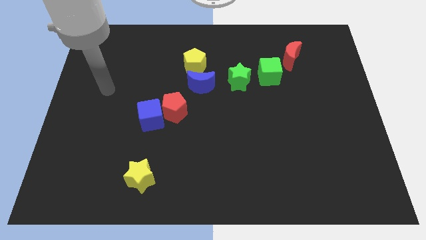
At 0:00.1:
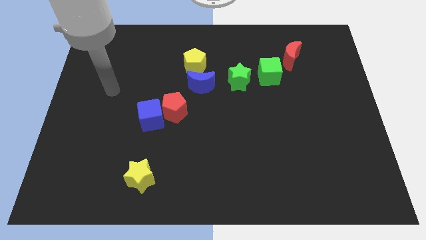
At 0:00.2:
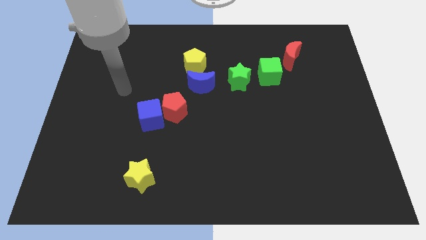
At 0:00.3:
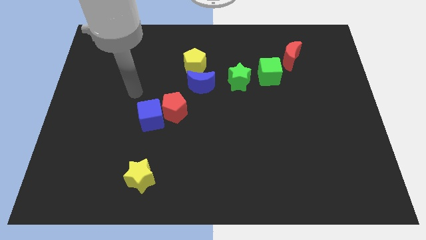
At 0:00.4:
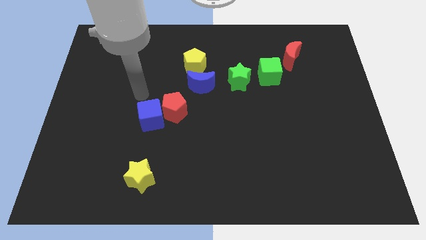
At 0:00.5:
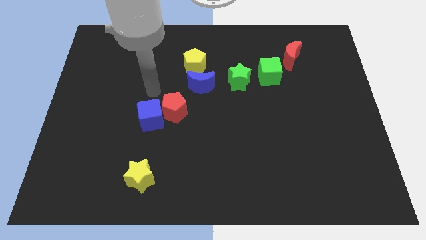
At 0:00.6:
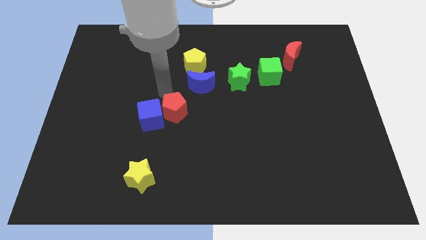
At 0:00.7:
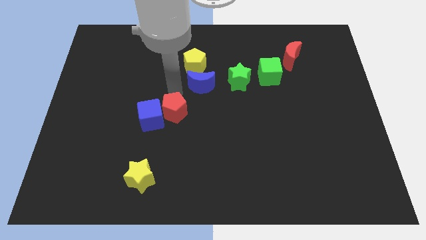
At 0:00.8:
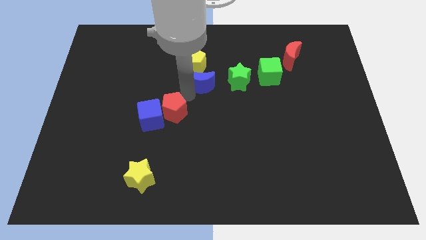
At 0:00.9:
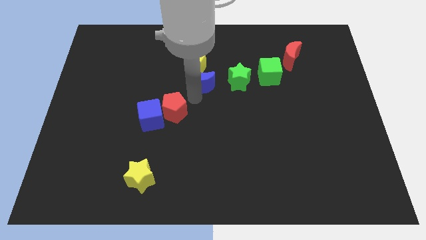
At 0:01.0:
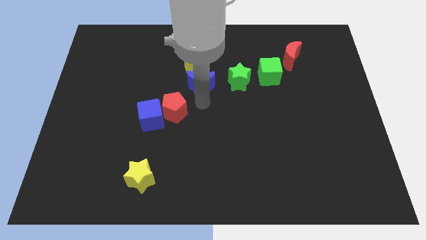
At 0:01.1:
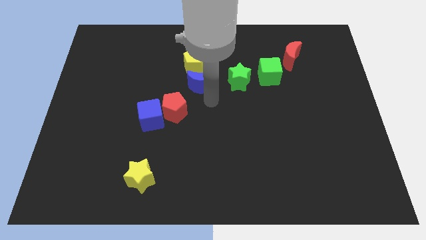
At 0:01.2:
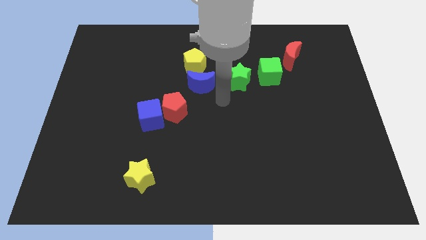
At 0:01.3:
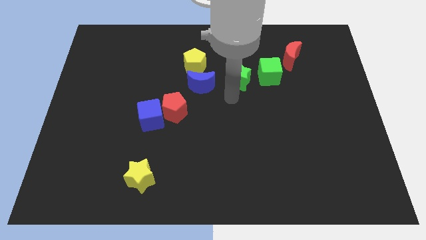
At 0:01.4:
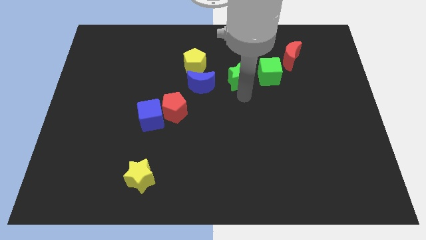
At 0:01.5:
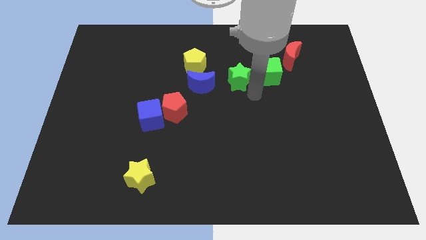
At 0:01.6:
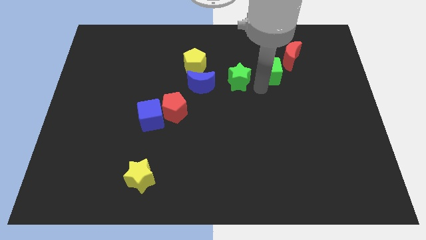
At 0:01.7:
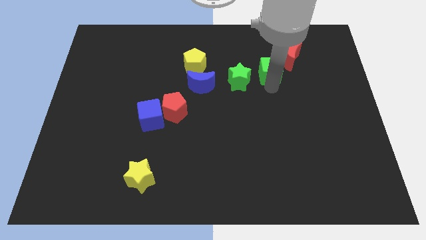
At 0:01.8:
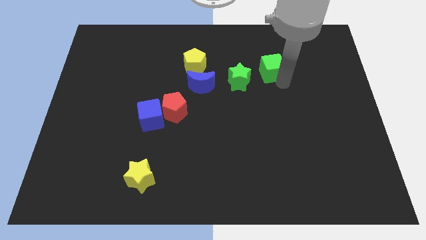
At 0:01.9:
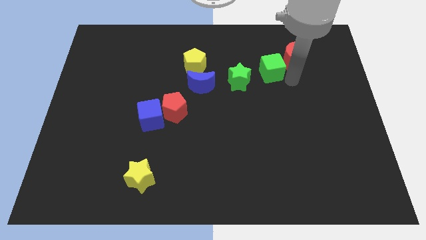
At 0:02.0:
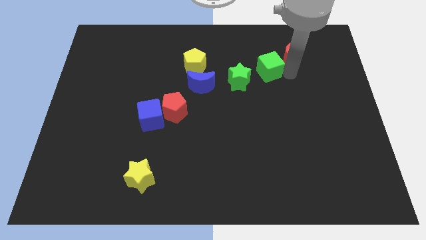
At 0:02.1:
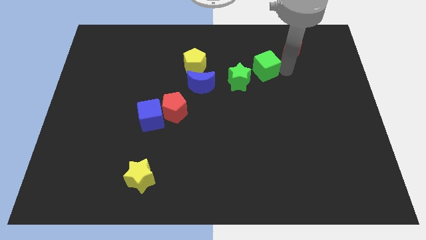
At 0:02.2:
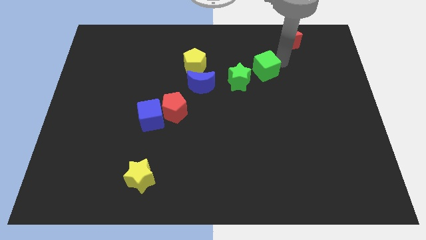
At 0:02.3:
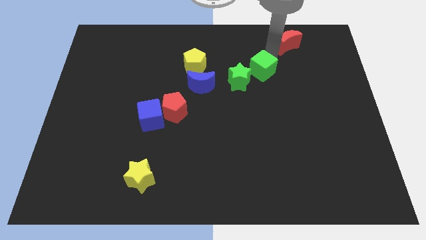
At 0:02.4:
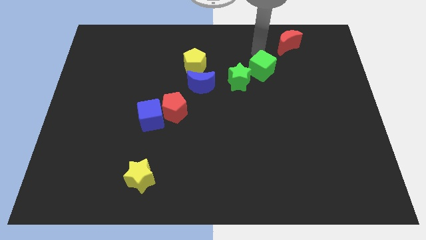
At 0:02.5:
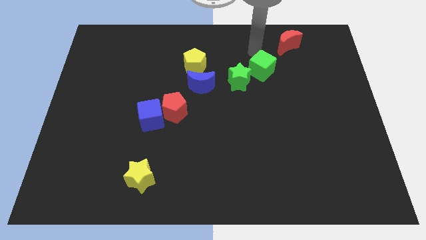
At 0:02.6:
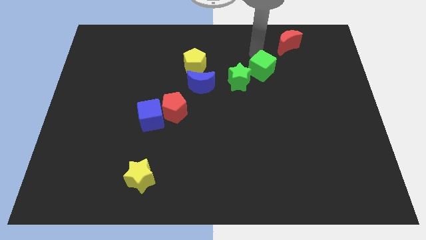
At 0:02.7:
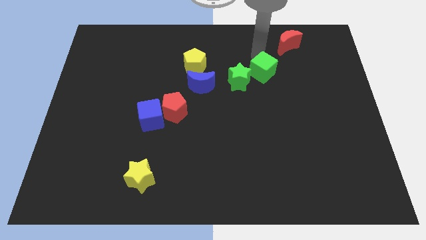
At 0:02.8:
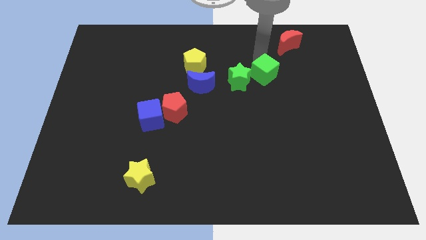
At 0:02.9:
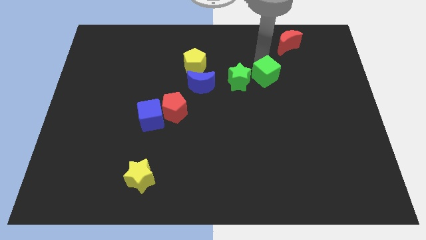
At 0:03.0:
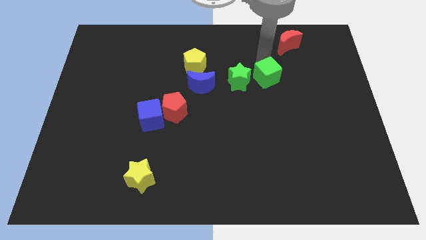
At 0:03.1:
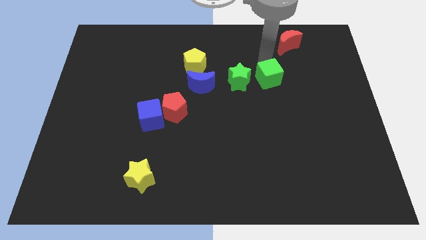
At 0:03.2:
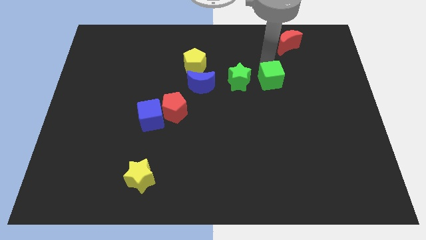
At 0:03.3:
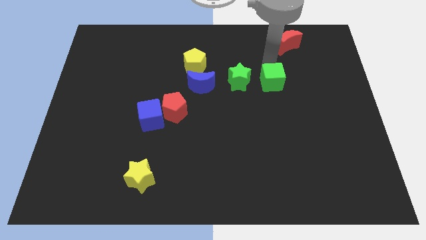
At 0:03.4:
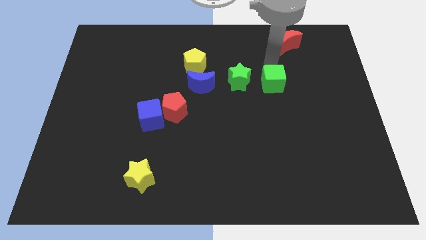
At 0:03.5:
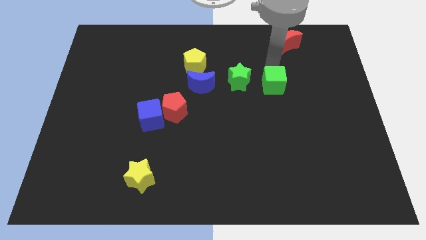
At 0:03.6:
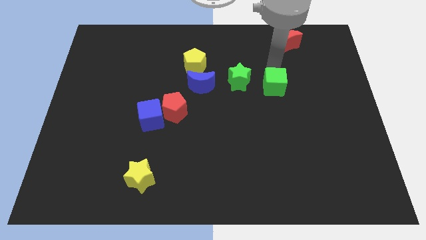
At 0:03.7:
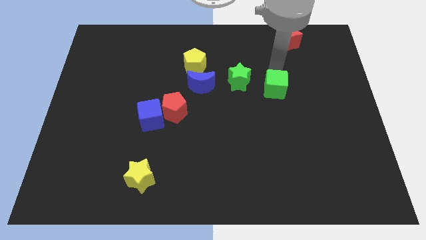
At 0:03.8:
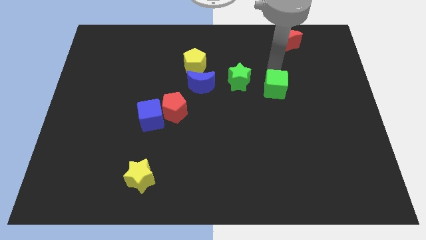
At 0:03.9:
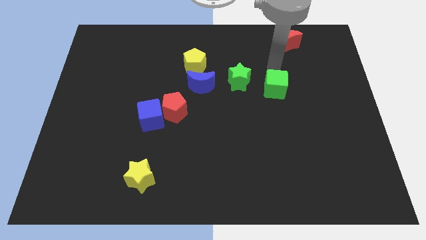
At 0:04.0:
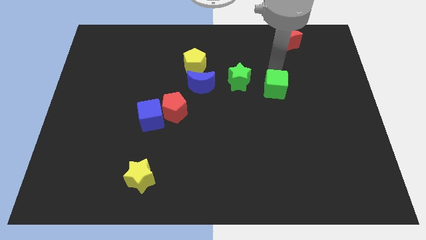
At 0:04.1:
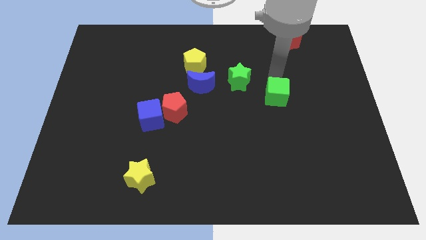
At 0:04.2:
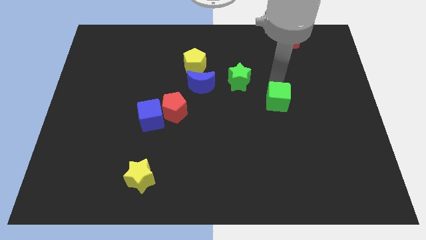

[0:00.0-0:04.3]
slightly slide the green cube down

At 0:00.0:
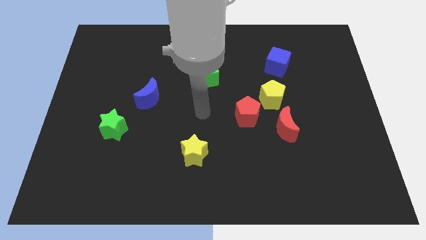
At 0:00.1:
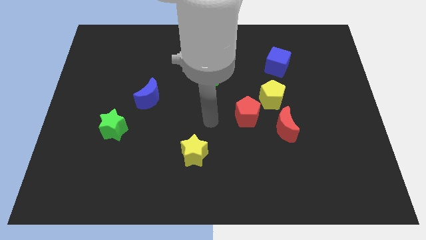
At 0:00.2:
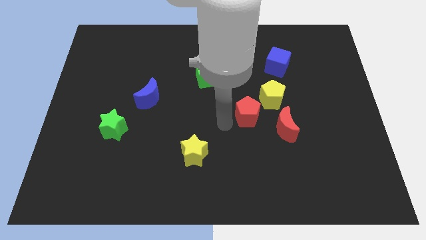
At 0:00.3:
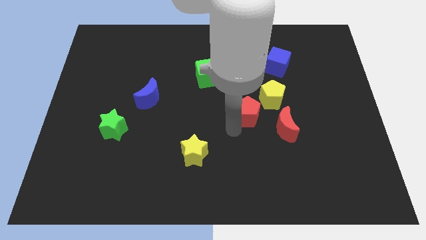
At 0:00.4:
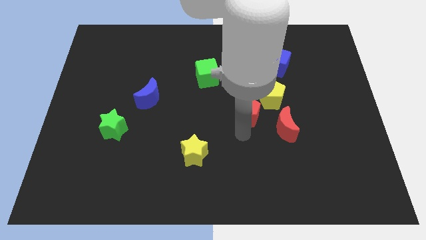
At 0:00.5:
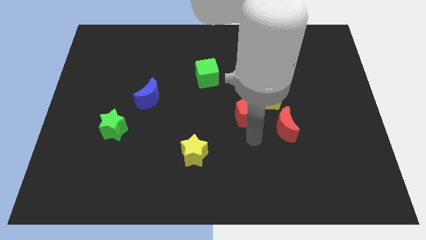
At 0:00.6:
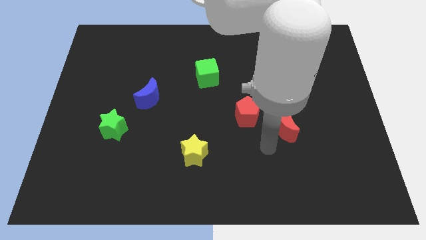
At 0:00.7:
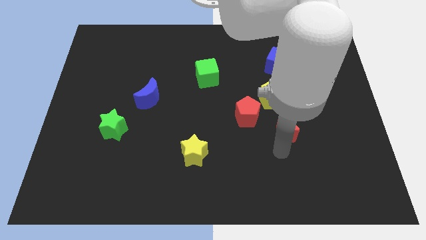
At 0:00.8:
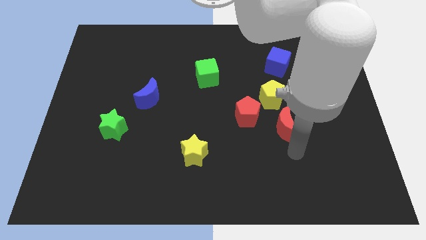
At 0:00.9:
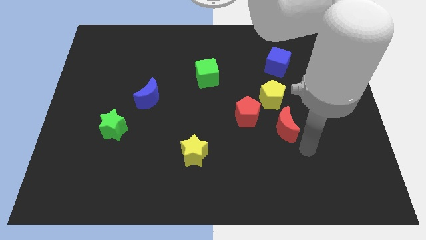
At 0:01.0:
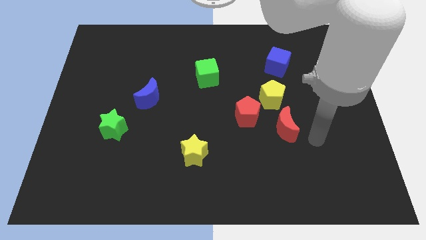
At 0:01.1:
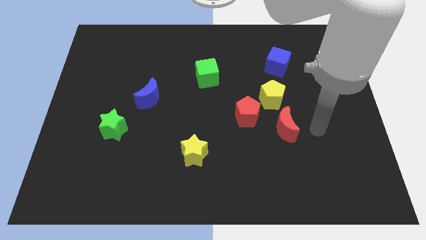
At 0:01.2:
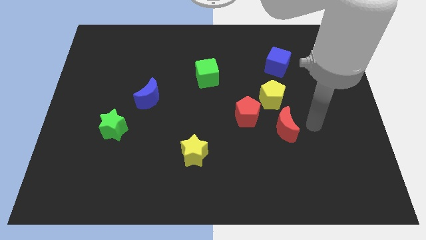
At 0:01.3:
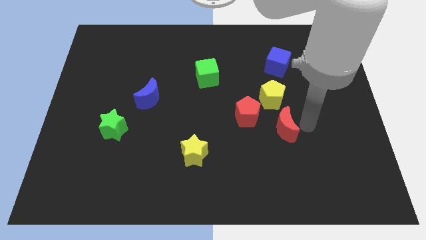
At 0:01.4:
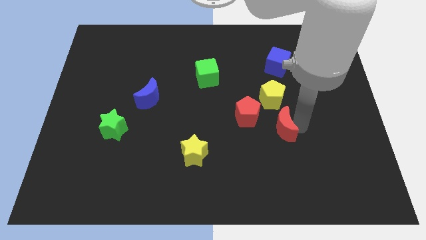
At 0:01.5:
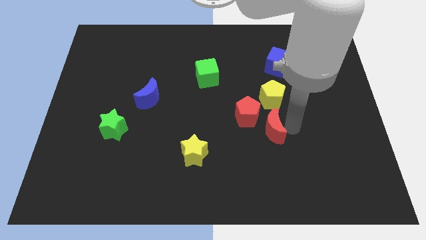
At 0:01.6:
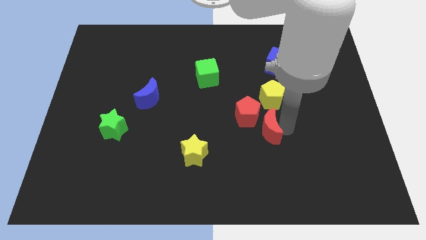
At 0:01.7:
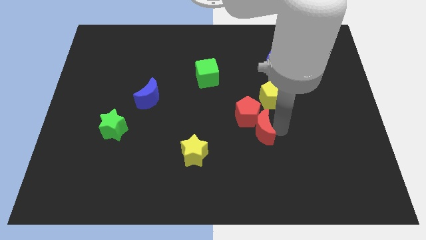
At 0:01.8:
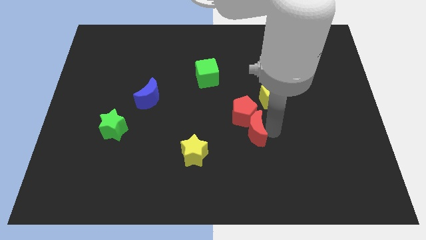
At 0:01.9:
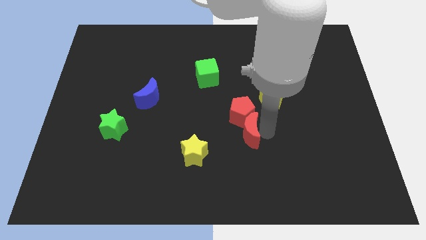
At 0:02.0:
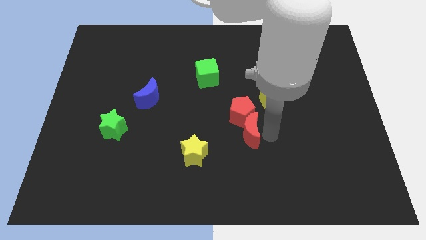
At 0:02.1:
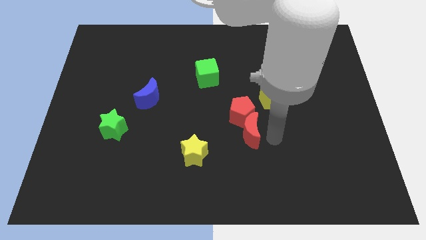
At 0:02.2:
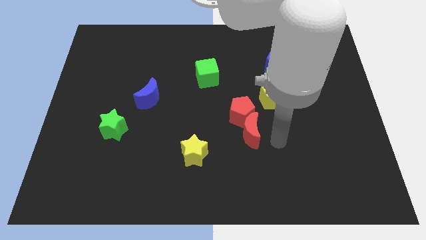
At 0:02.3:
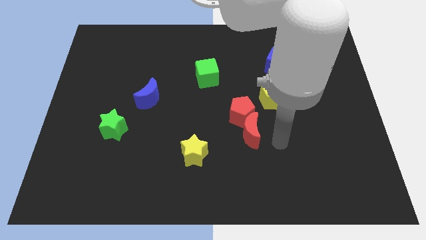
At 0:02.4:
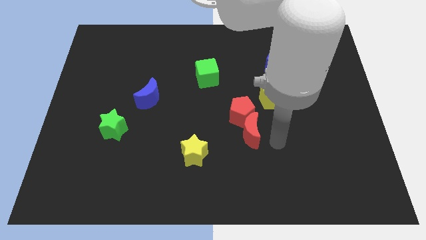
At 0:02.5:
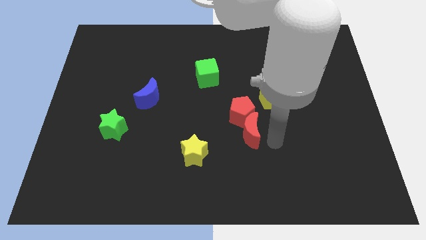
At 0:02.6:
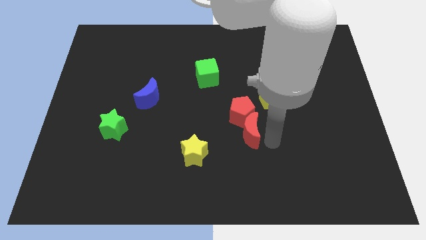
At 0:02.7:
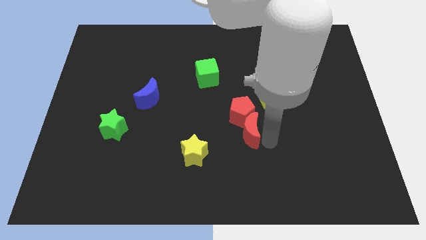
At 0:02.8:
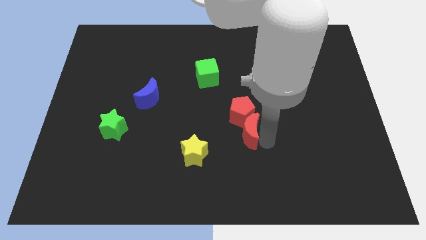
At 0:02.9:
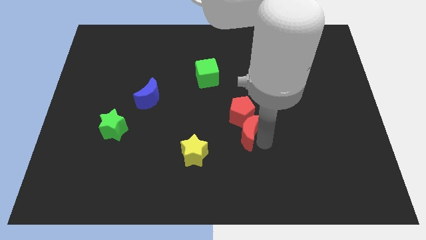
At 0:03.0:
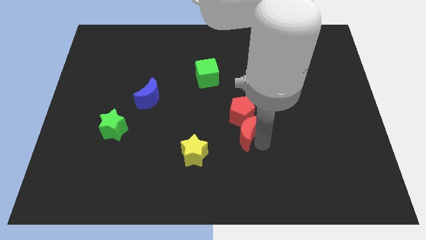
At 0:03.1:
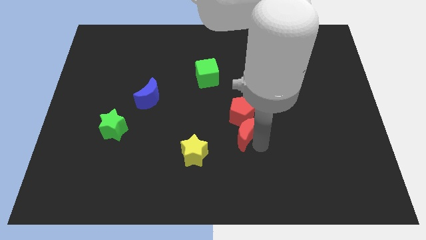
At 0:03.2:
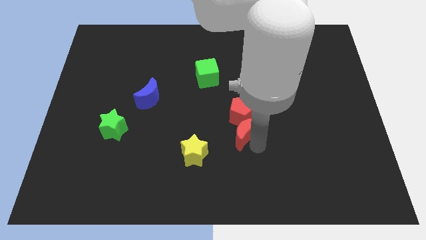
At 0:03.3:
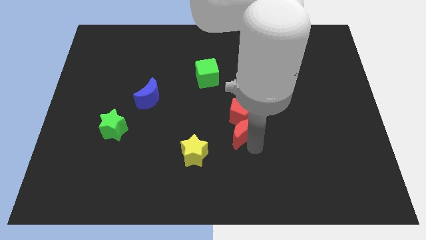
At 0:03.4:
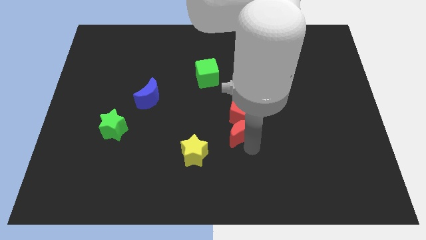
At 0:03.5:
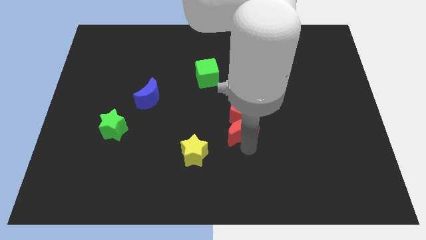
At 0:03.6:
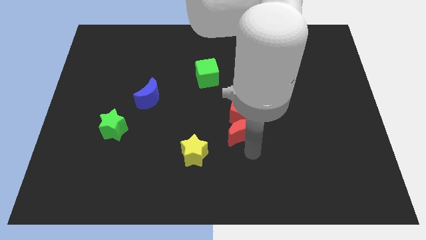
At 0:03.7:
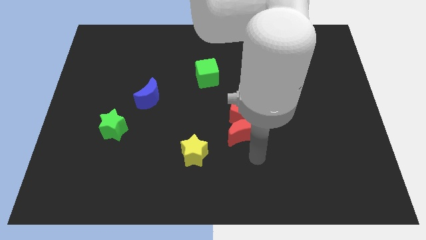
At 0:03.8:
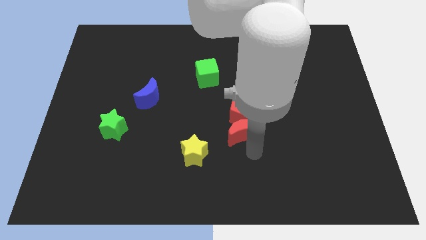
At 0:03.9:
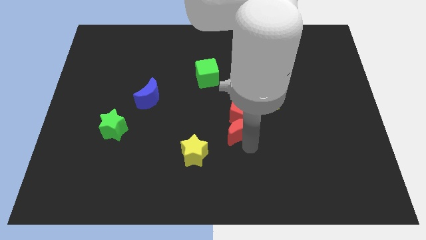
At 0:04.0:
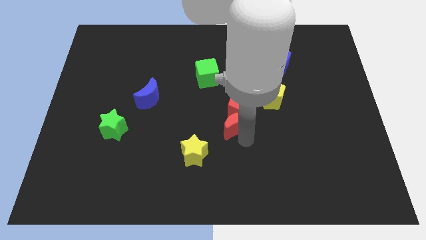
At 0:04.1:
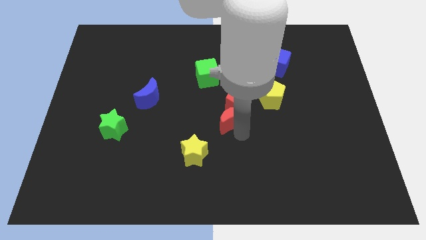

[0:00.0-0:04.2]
move the red moon upwards and to the left slightly
